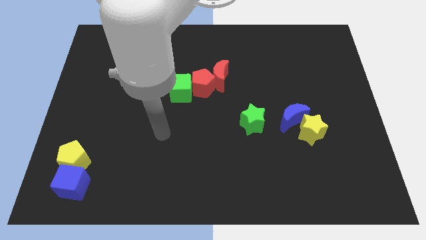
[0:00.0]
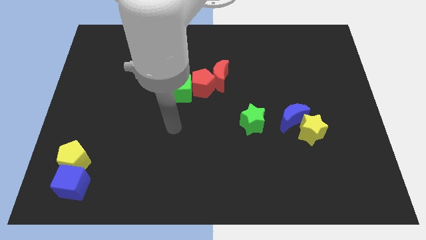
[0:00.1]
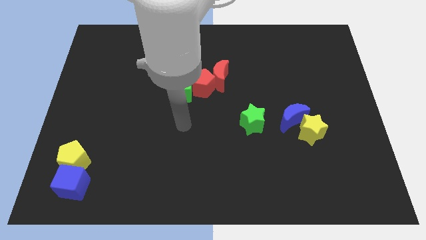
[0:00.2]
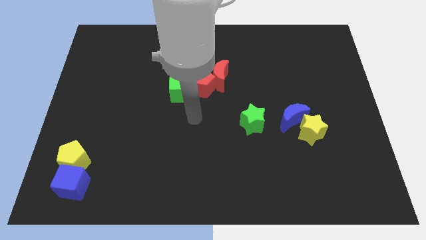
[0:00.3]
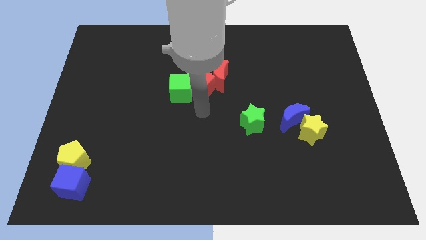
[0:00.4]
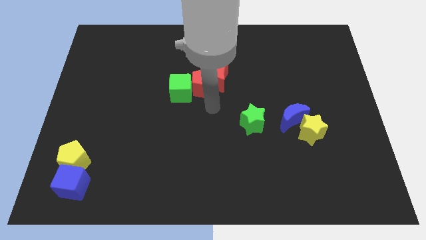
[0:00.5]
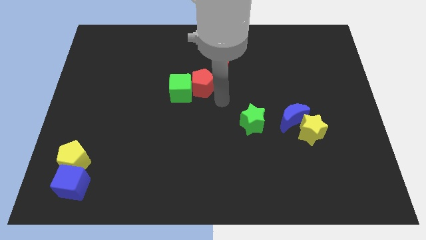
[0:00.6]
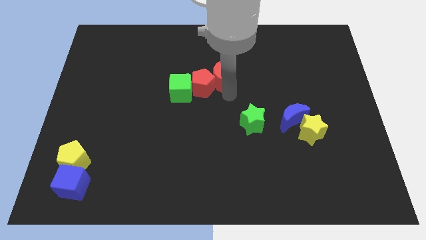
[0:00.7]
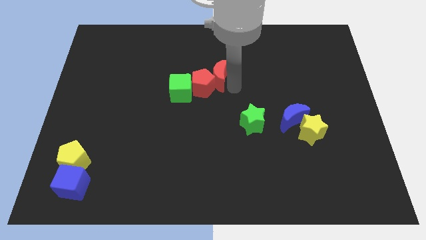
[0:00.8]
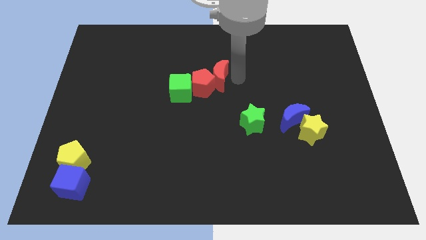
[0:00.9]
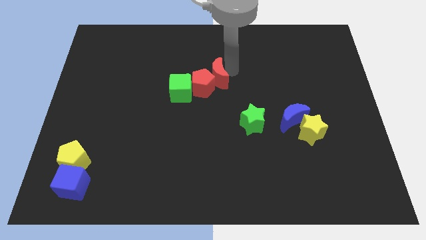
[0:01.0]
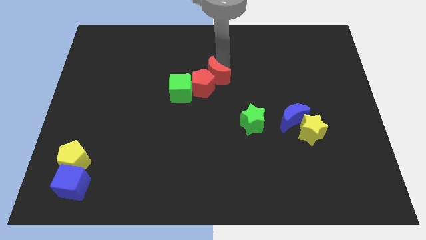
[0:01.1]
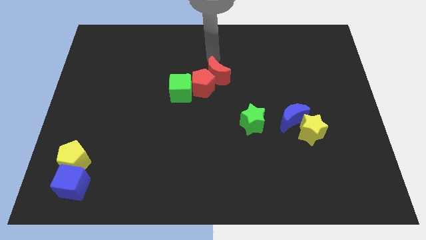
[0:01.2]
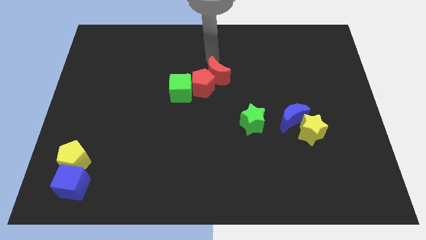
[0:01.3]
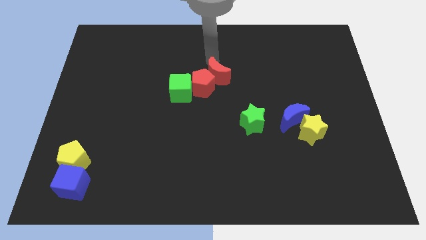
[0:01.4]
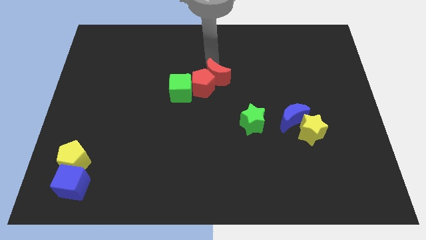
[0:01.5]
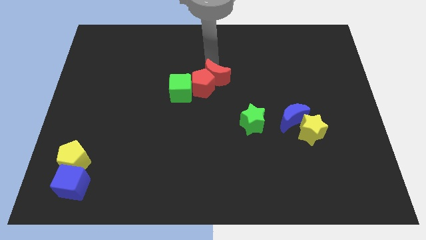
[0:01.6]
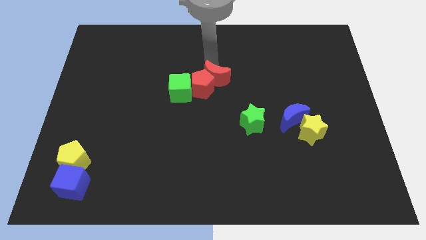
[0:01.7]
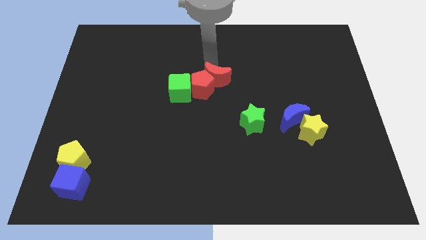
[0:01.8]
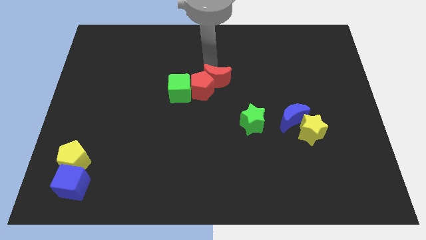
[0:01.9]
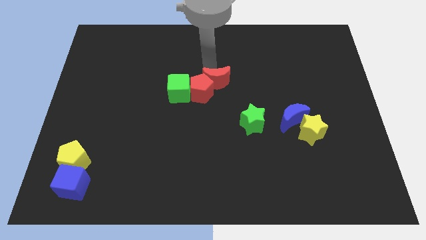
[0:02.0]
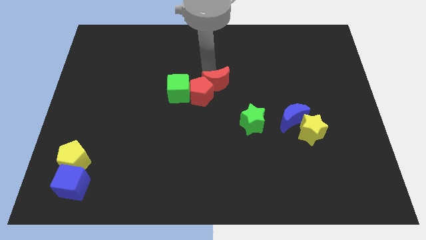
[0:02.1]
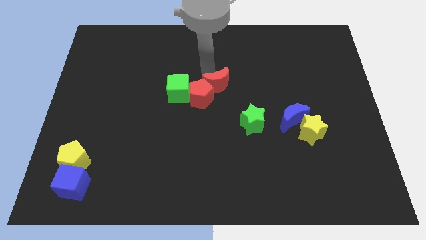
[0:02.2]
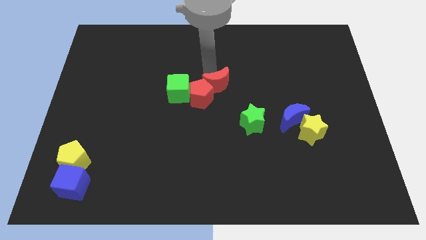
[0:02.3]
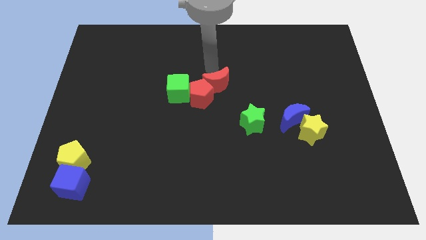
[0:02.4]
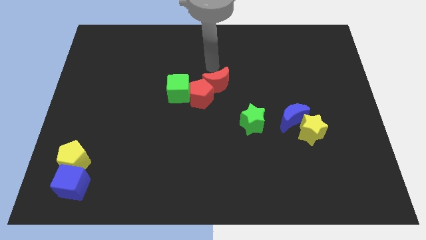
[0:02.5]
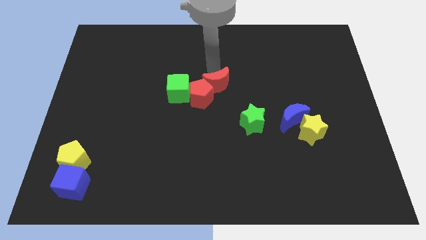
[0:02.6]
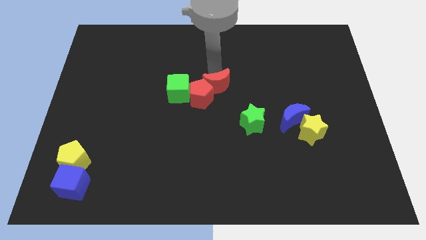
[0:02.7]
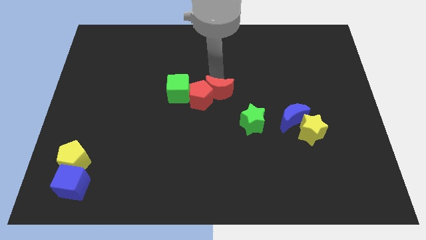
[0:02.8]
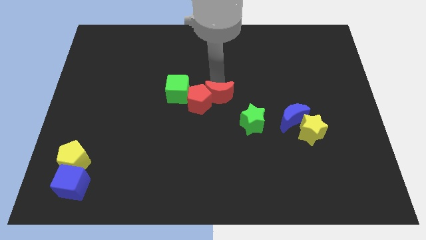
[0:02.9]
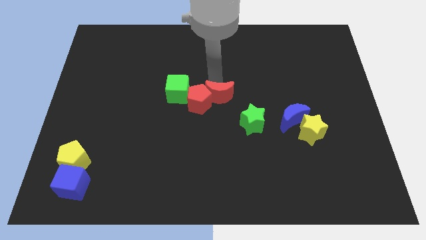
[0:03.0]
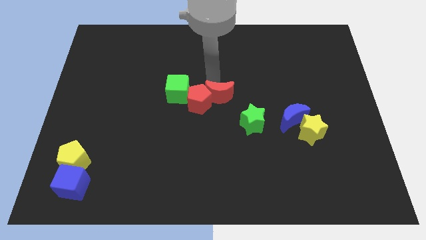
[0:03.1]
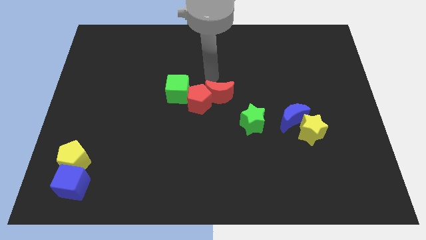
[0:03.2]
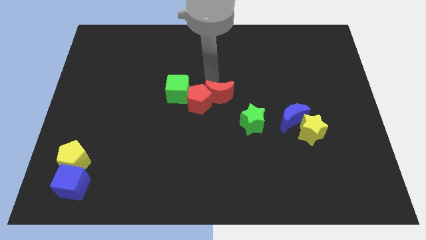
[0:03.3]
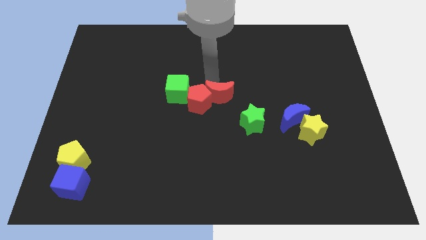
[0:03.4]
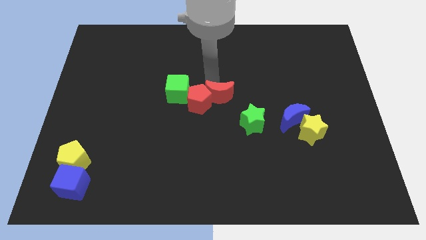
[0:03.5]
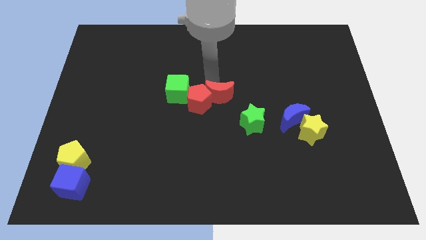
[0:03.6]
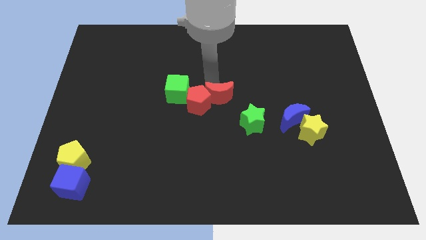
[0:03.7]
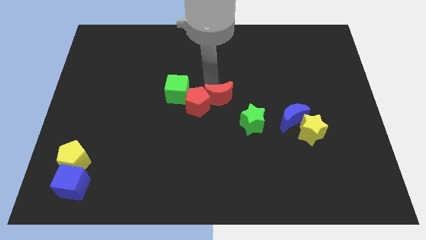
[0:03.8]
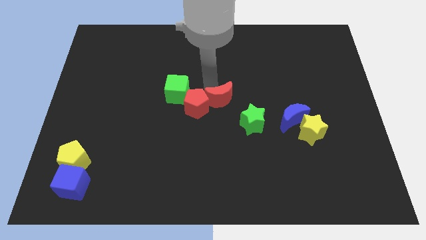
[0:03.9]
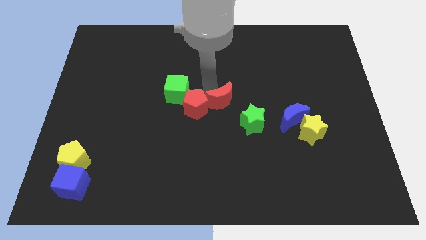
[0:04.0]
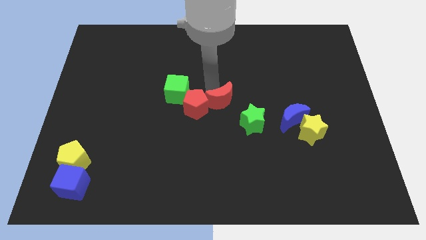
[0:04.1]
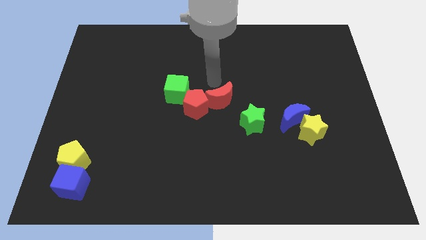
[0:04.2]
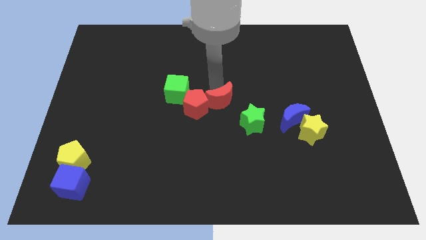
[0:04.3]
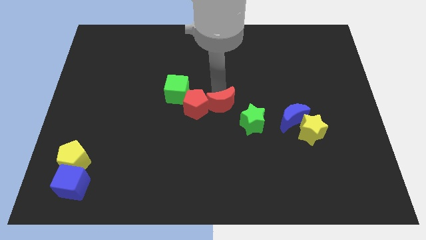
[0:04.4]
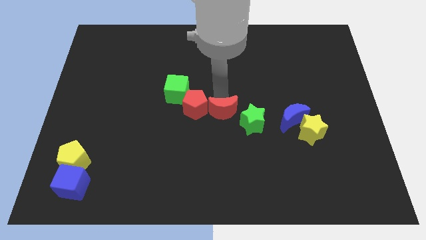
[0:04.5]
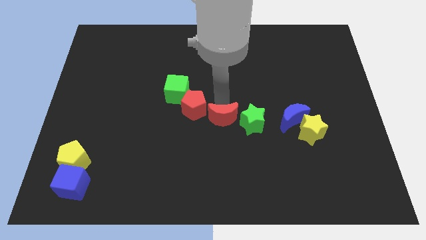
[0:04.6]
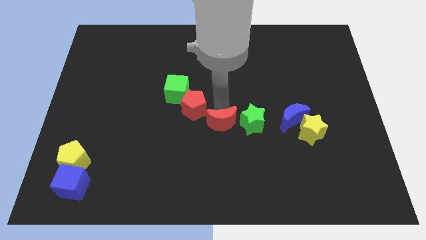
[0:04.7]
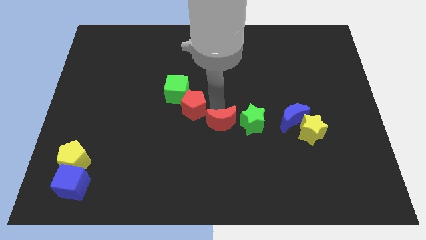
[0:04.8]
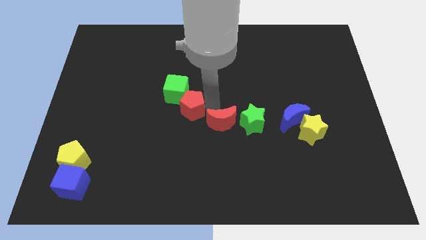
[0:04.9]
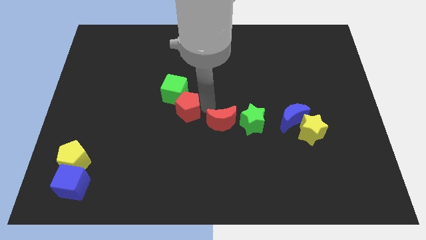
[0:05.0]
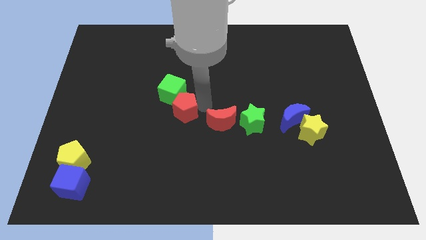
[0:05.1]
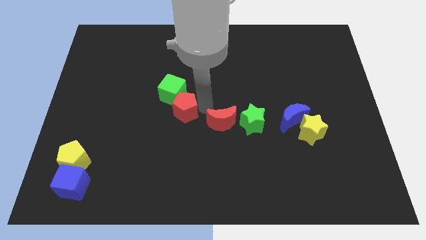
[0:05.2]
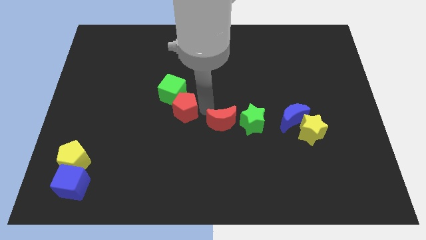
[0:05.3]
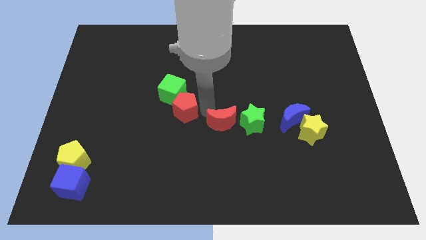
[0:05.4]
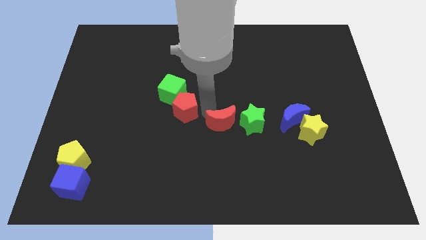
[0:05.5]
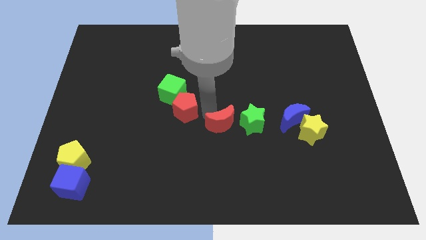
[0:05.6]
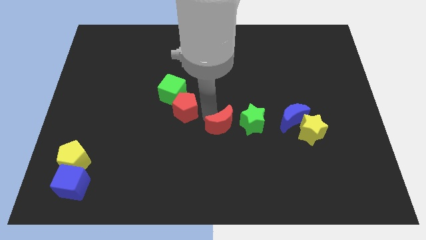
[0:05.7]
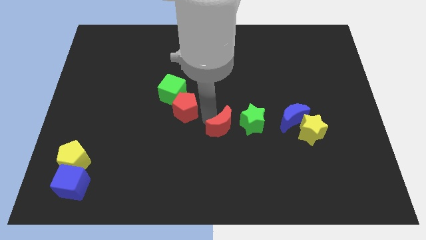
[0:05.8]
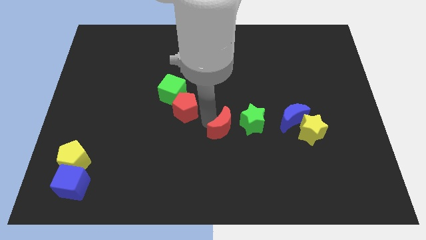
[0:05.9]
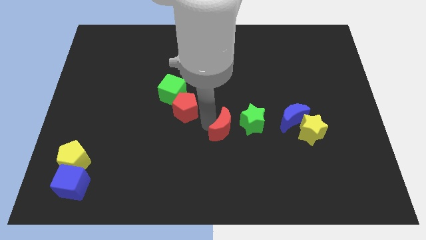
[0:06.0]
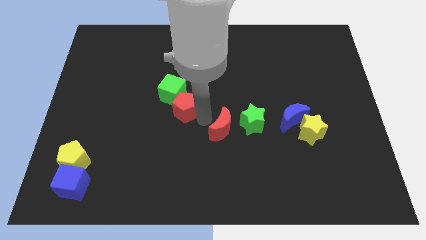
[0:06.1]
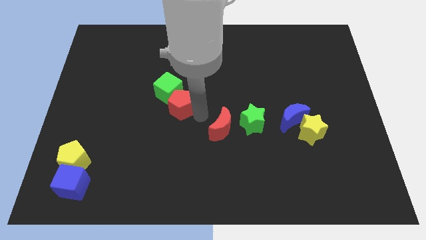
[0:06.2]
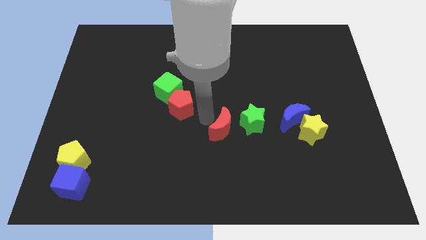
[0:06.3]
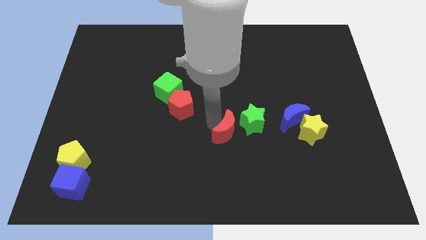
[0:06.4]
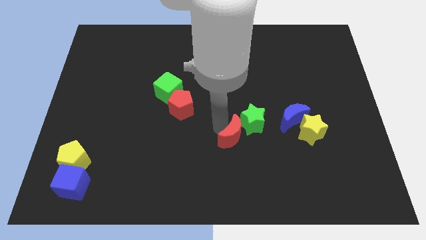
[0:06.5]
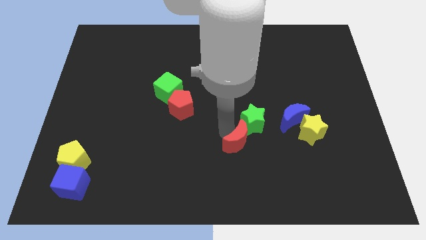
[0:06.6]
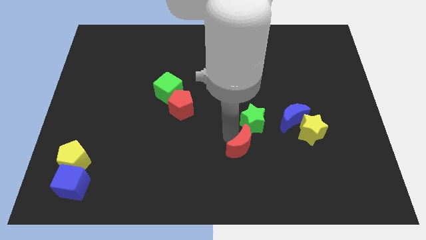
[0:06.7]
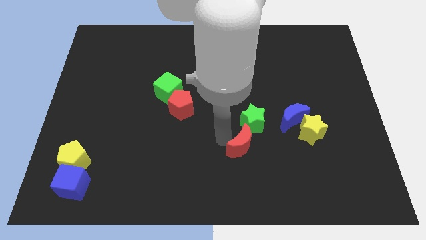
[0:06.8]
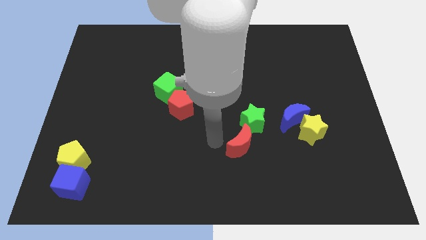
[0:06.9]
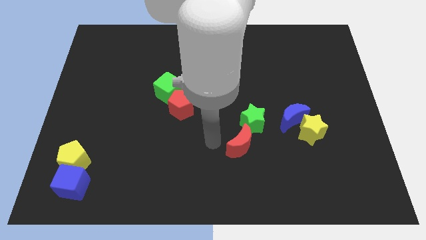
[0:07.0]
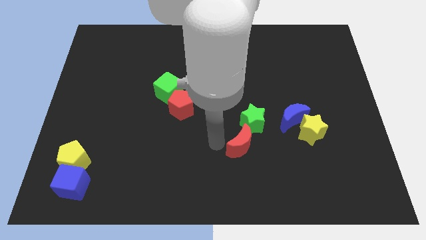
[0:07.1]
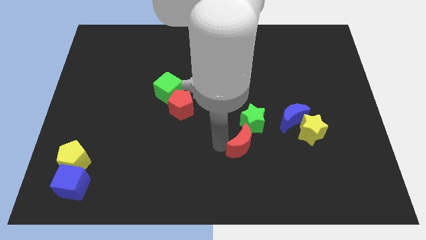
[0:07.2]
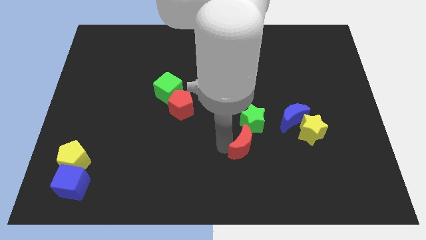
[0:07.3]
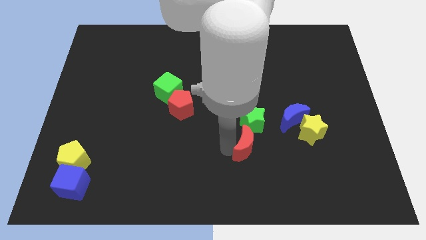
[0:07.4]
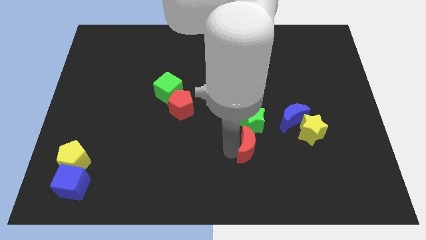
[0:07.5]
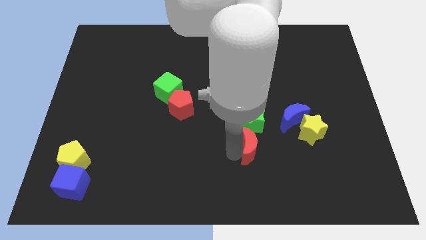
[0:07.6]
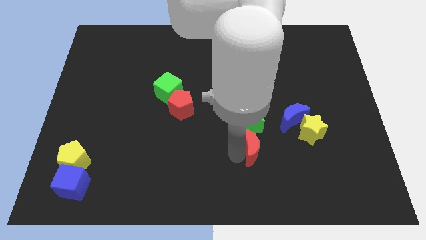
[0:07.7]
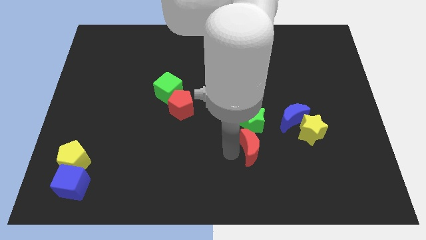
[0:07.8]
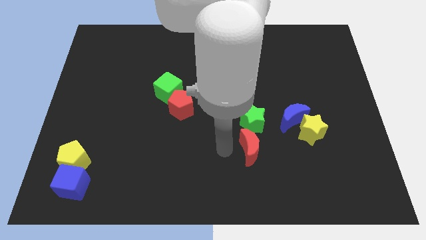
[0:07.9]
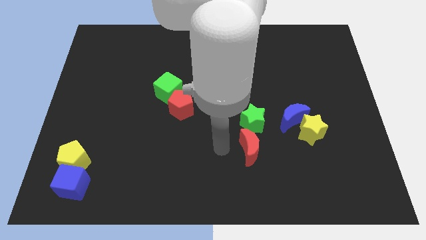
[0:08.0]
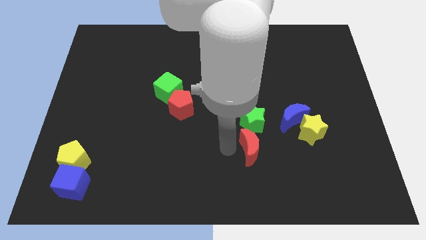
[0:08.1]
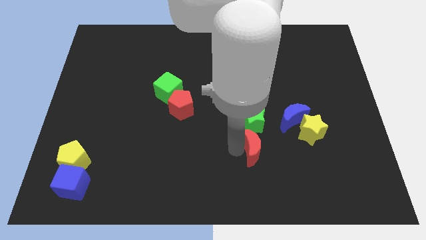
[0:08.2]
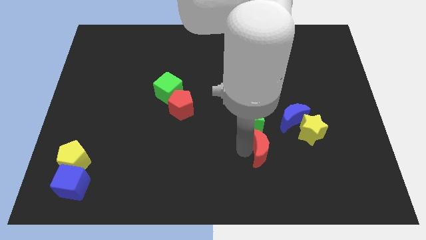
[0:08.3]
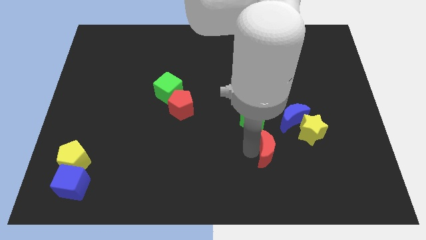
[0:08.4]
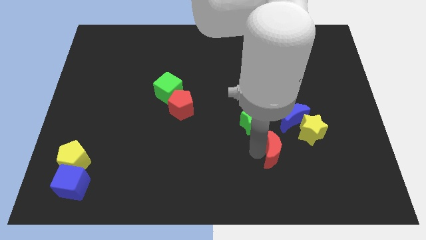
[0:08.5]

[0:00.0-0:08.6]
move the red moon downwards and to the right
